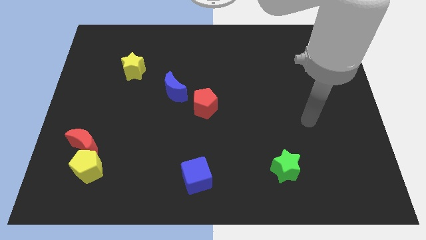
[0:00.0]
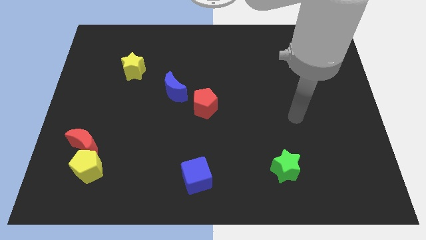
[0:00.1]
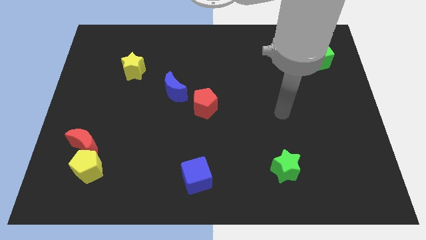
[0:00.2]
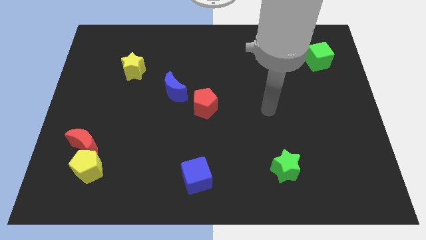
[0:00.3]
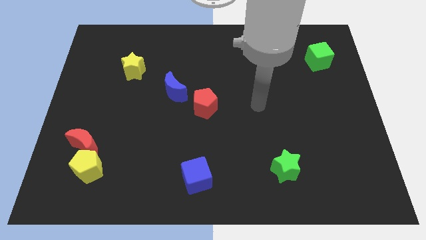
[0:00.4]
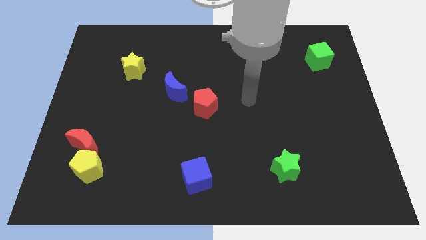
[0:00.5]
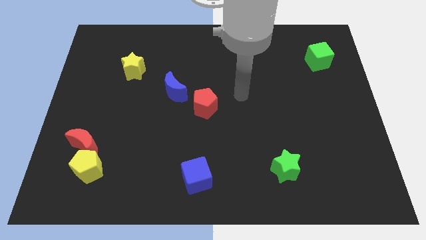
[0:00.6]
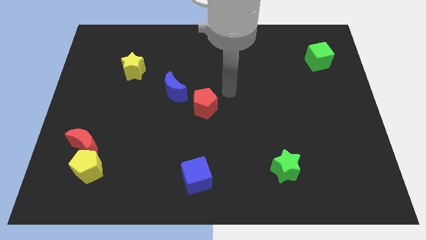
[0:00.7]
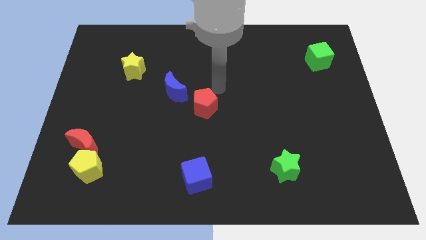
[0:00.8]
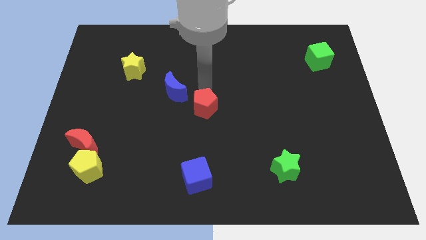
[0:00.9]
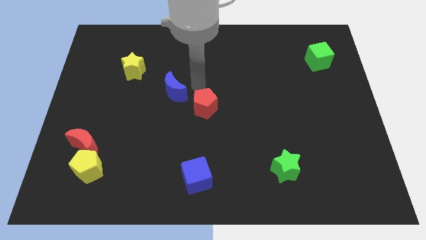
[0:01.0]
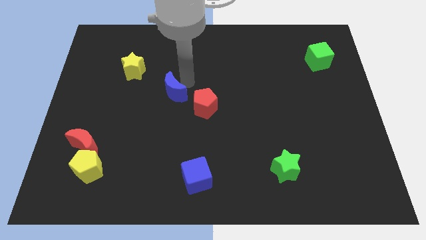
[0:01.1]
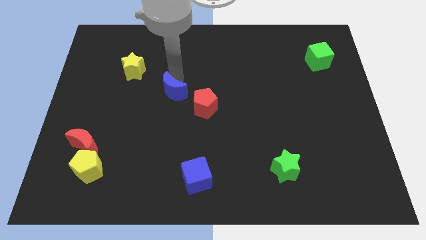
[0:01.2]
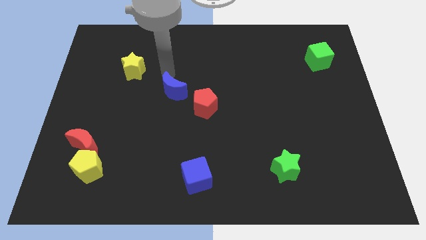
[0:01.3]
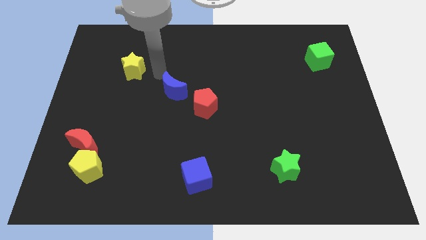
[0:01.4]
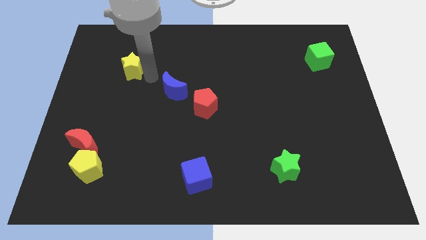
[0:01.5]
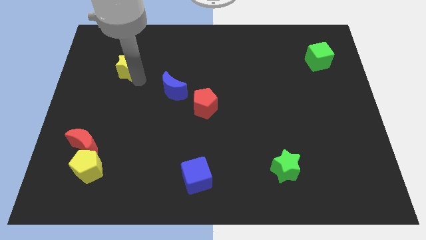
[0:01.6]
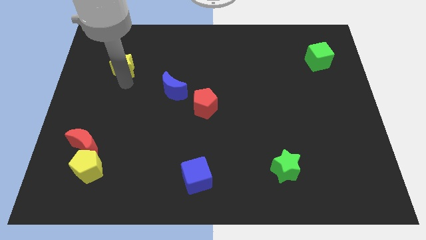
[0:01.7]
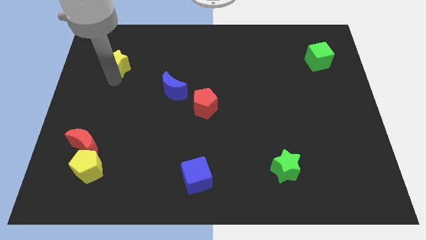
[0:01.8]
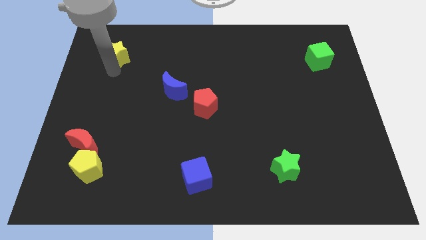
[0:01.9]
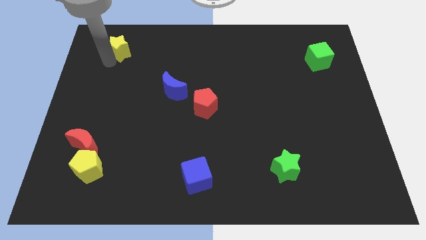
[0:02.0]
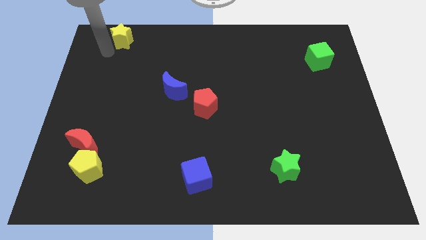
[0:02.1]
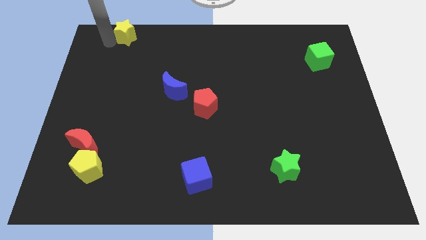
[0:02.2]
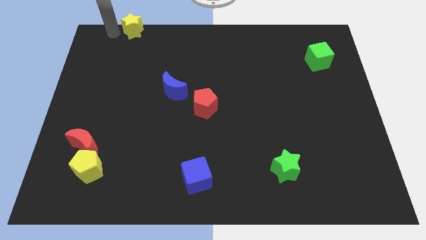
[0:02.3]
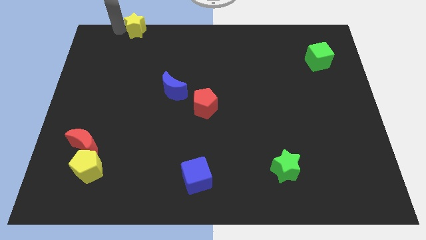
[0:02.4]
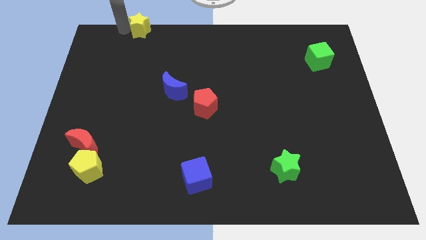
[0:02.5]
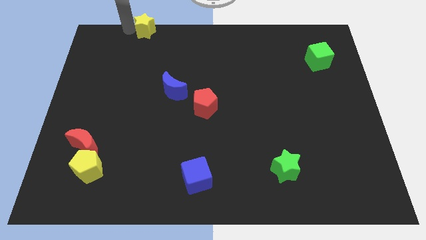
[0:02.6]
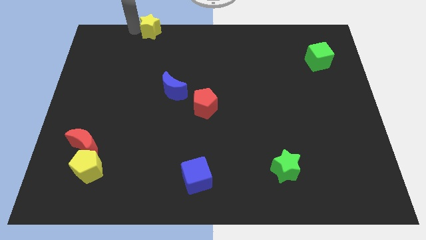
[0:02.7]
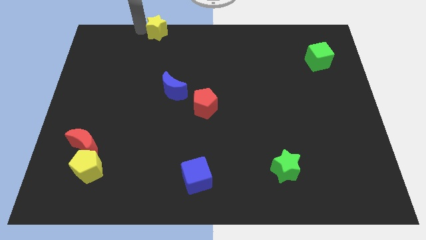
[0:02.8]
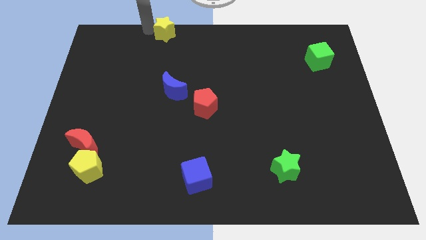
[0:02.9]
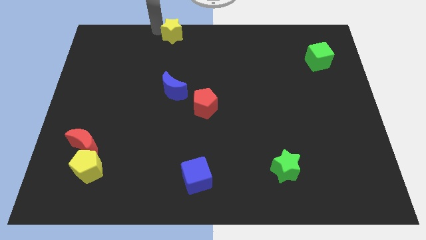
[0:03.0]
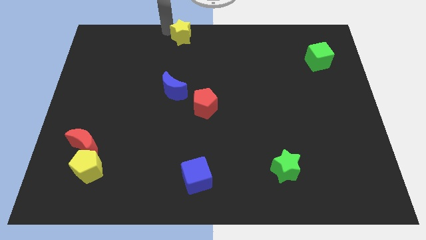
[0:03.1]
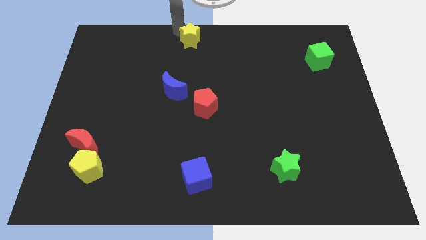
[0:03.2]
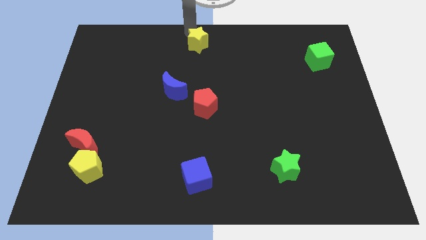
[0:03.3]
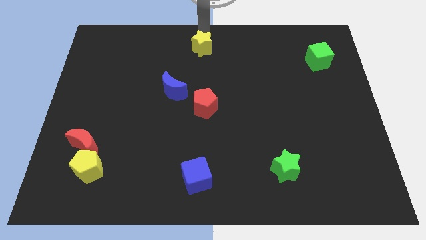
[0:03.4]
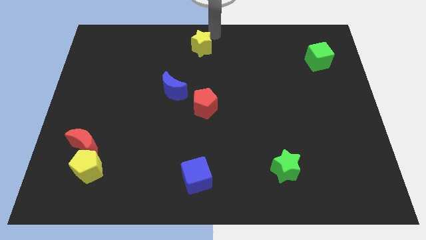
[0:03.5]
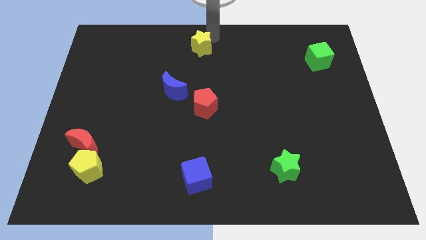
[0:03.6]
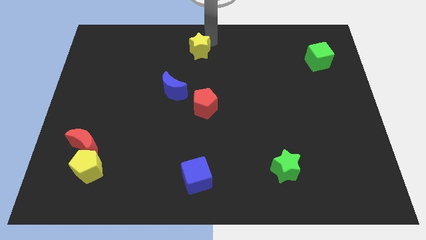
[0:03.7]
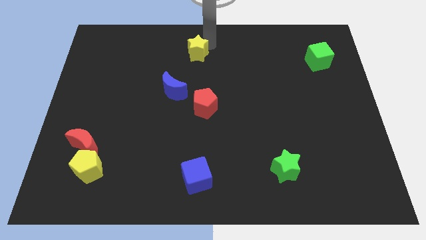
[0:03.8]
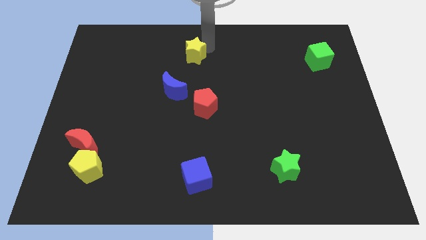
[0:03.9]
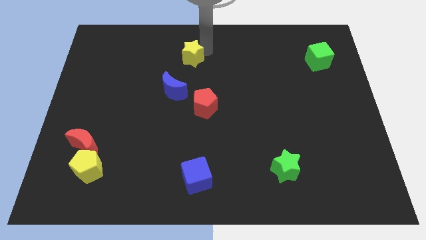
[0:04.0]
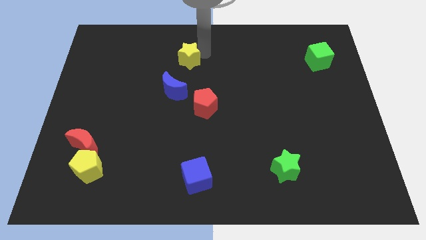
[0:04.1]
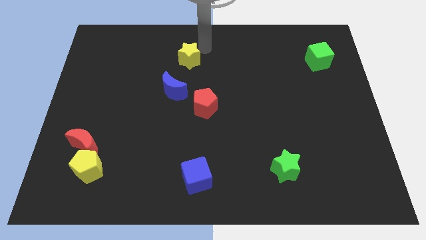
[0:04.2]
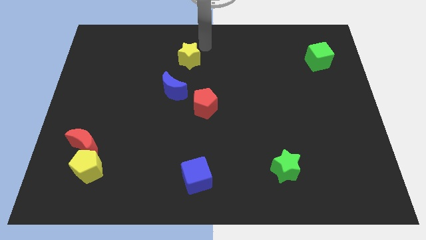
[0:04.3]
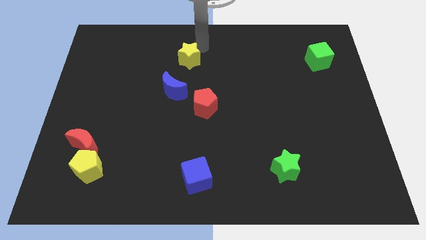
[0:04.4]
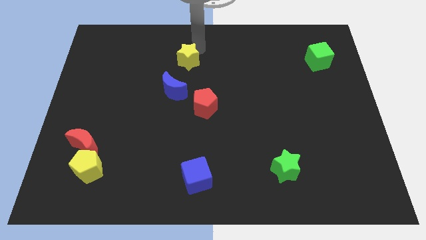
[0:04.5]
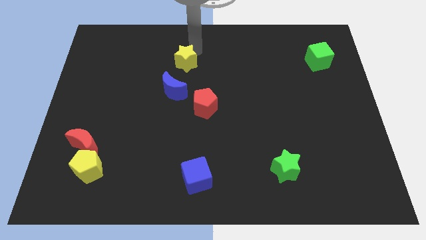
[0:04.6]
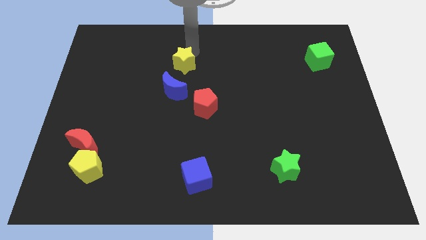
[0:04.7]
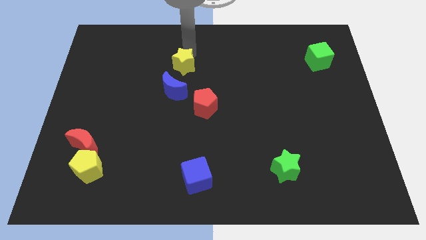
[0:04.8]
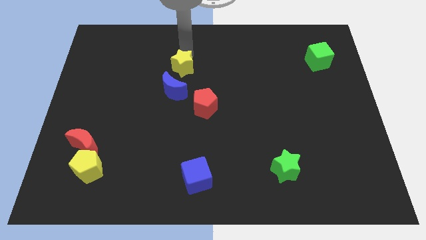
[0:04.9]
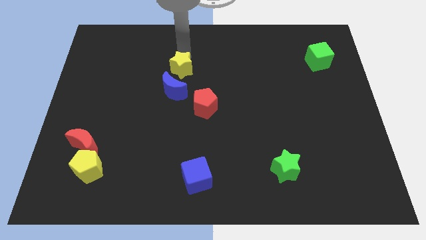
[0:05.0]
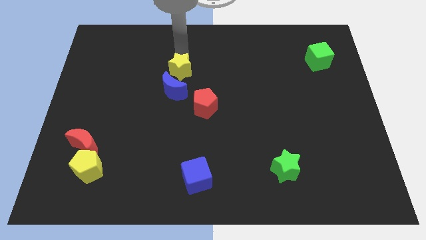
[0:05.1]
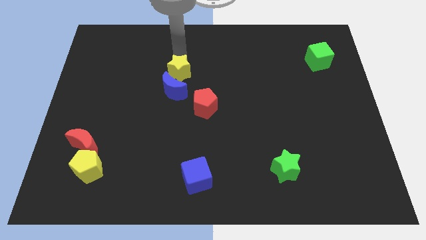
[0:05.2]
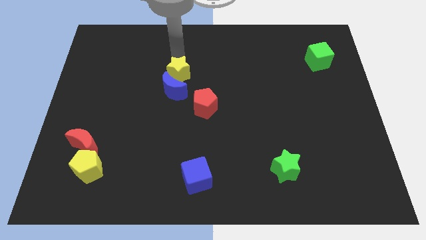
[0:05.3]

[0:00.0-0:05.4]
slide the yellow star to the blue moon

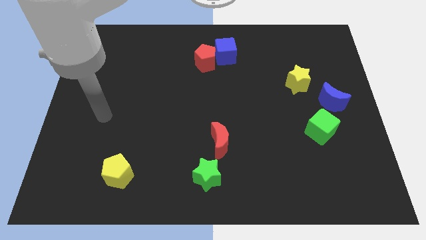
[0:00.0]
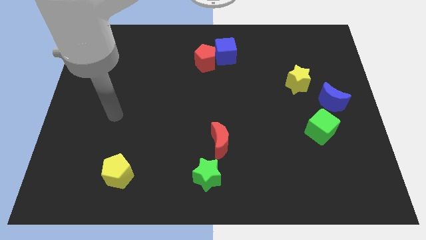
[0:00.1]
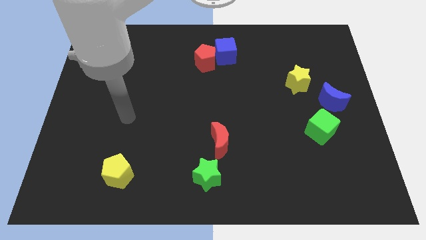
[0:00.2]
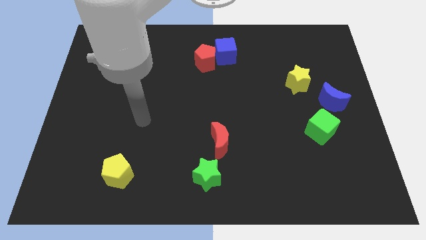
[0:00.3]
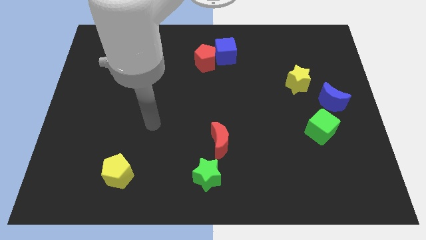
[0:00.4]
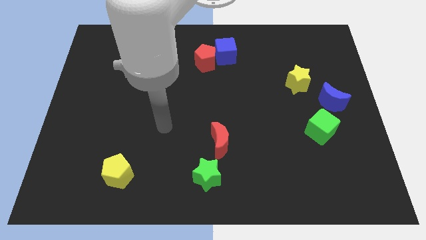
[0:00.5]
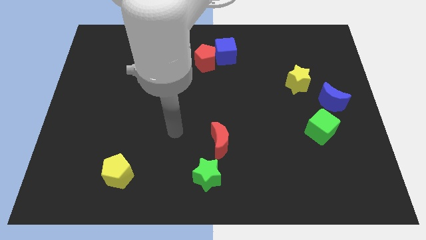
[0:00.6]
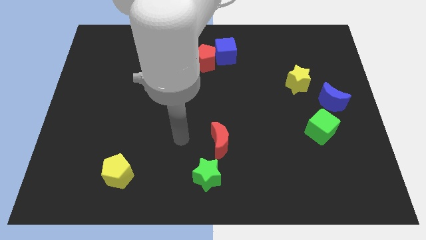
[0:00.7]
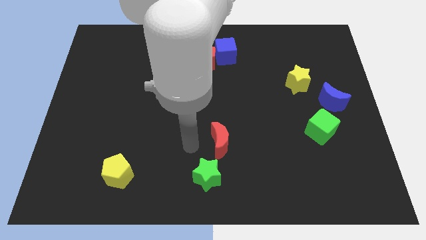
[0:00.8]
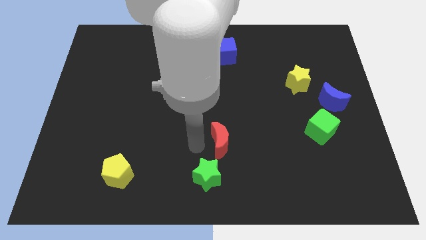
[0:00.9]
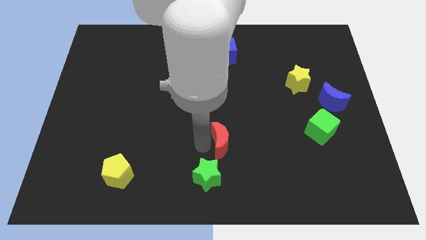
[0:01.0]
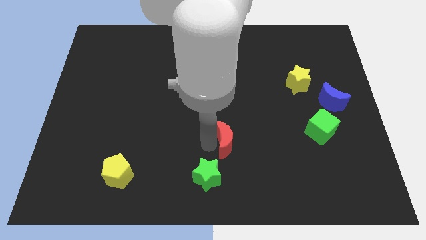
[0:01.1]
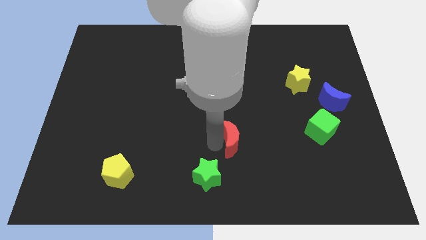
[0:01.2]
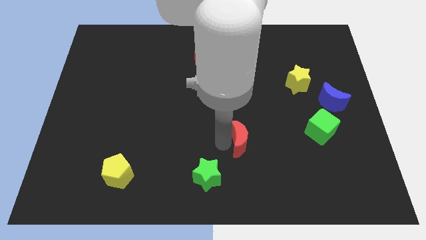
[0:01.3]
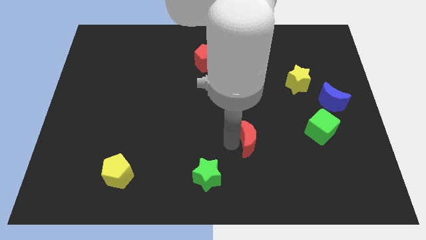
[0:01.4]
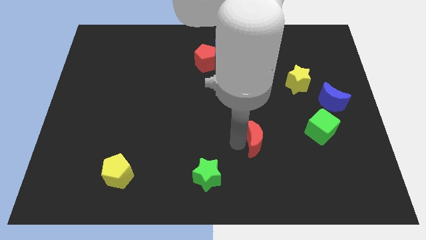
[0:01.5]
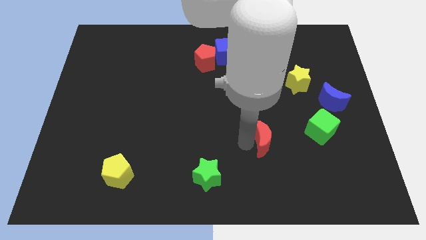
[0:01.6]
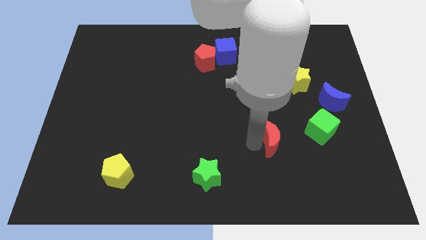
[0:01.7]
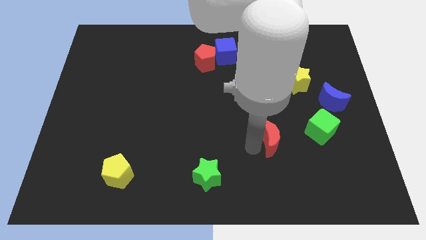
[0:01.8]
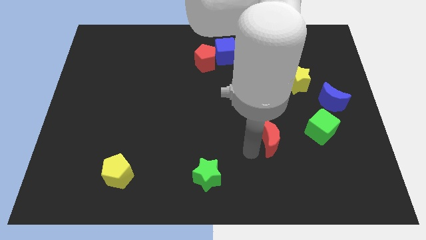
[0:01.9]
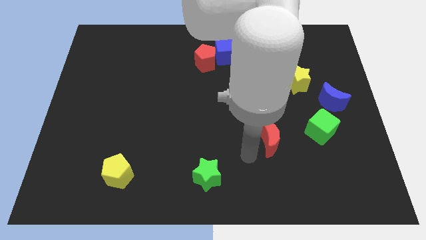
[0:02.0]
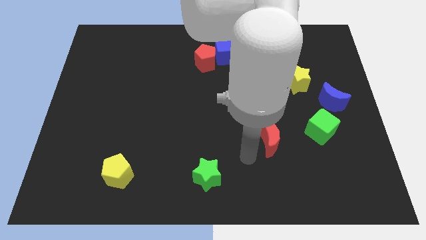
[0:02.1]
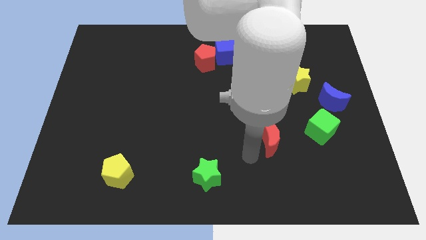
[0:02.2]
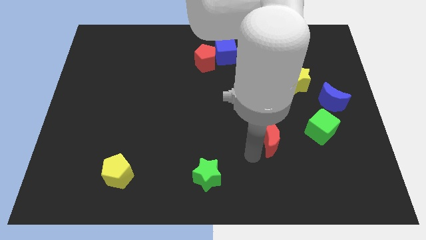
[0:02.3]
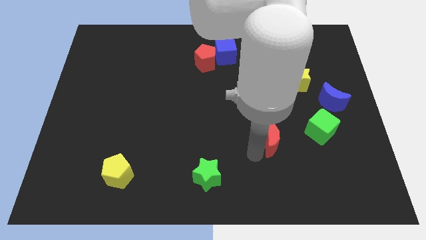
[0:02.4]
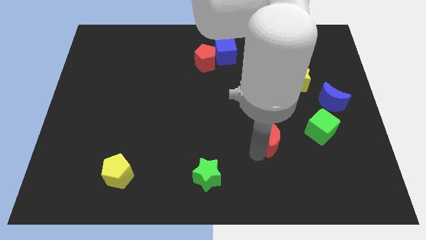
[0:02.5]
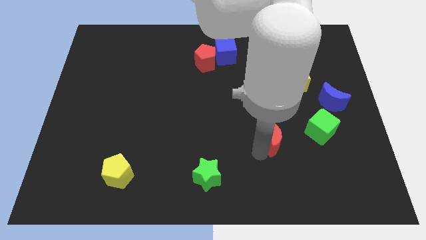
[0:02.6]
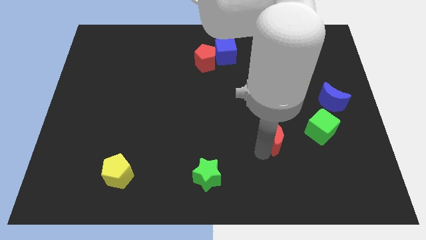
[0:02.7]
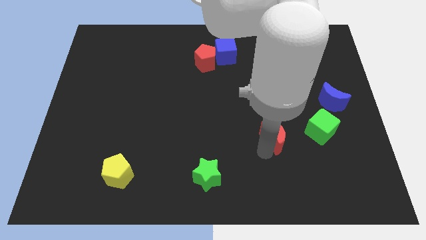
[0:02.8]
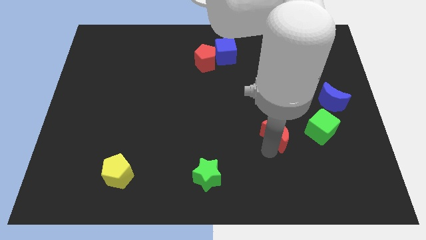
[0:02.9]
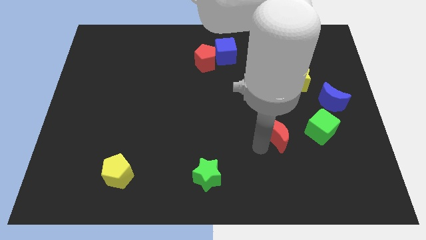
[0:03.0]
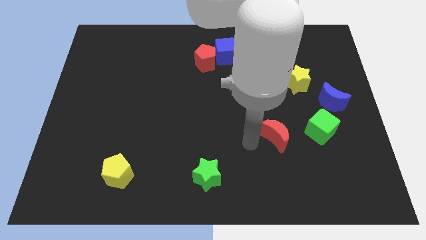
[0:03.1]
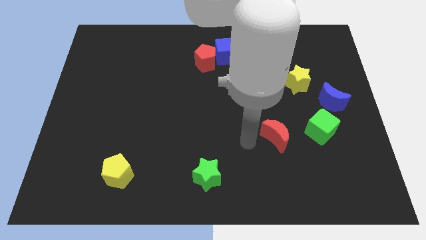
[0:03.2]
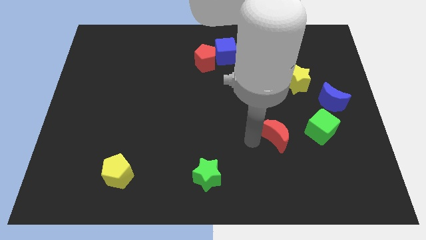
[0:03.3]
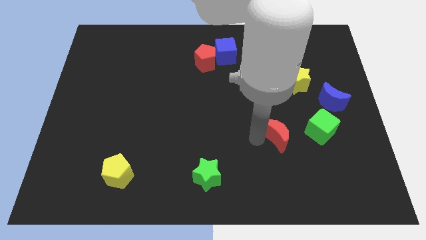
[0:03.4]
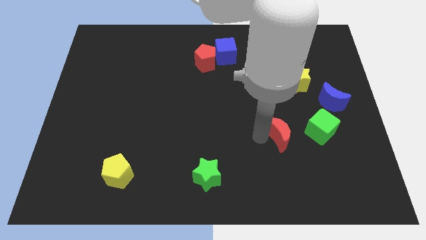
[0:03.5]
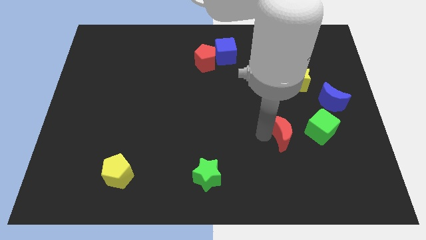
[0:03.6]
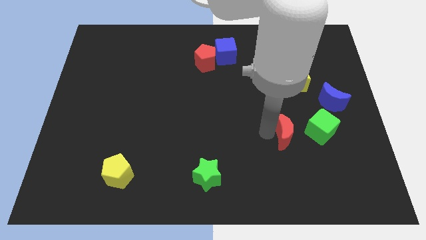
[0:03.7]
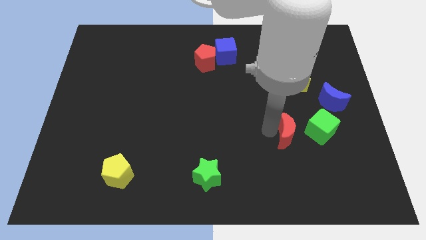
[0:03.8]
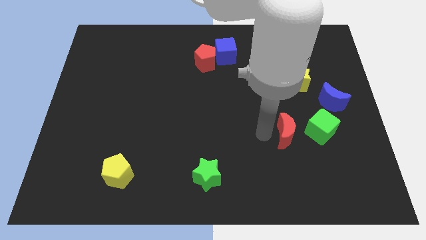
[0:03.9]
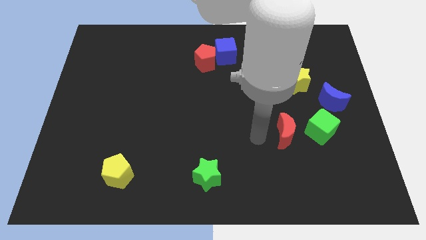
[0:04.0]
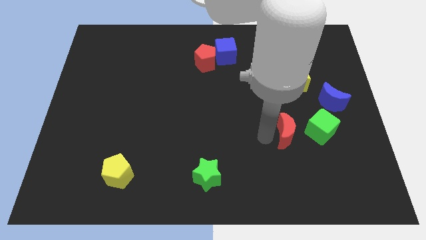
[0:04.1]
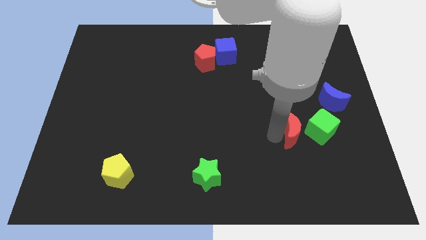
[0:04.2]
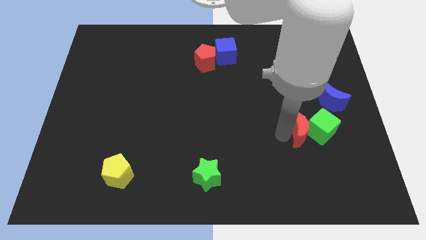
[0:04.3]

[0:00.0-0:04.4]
move the red moon next to the green cube
